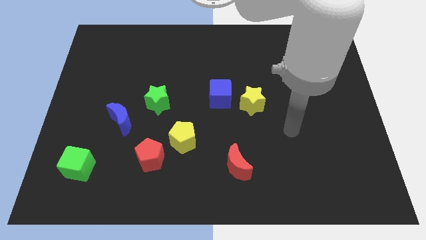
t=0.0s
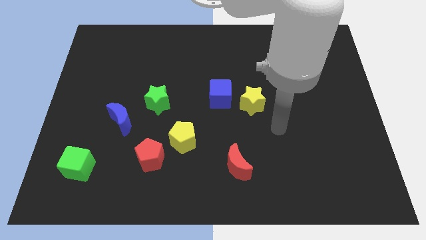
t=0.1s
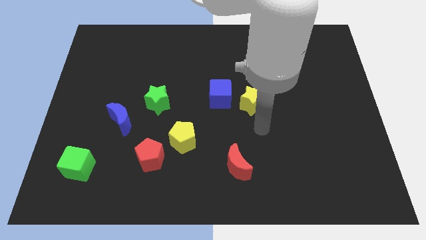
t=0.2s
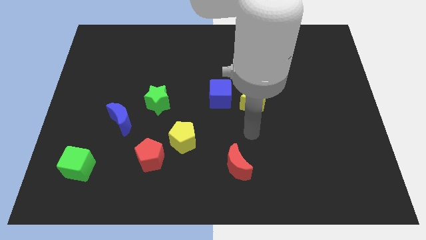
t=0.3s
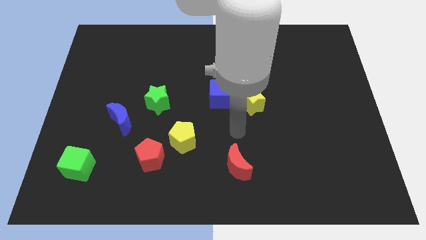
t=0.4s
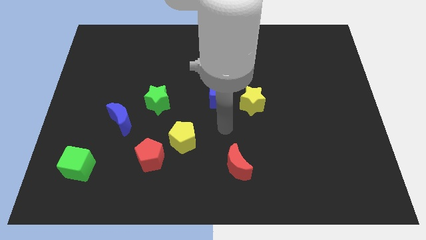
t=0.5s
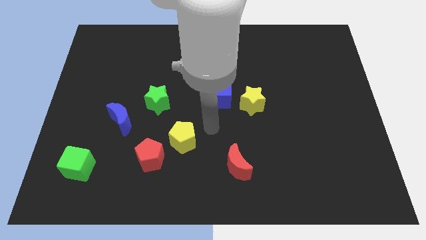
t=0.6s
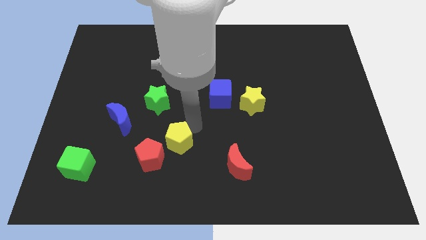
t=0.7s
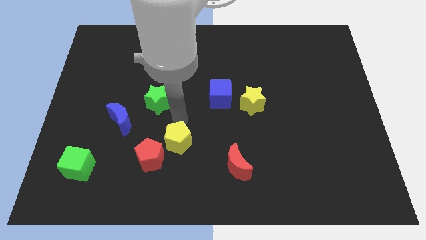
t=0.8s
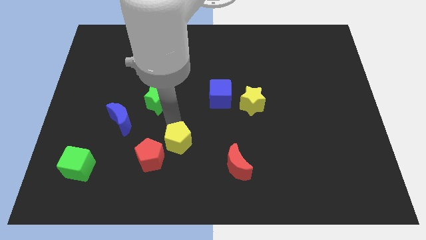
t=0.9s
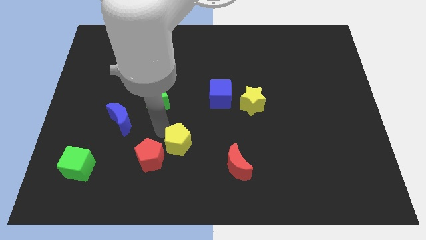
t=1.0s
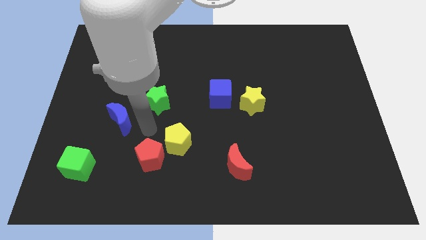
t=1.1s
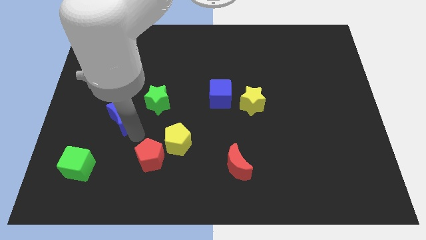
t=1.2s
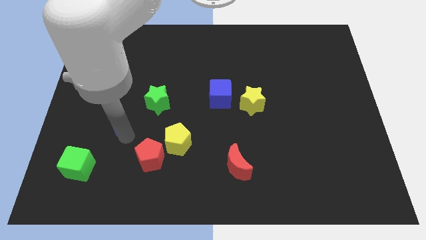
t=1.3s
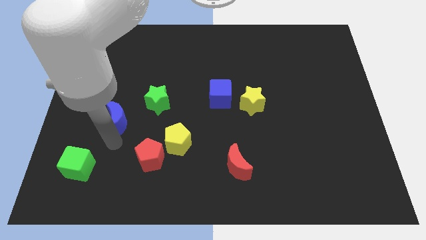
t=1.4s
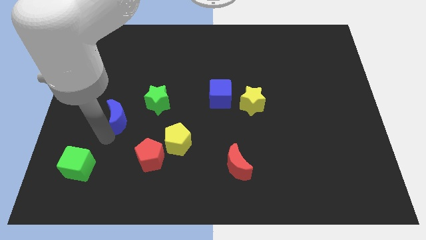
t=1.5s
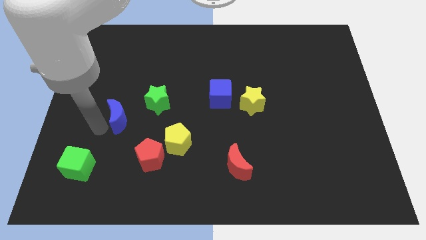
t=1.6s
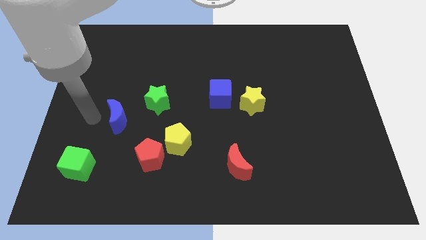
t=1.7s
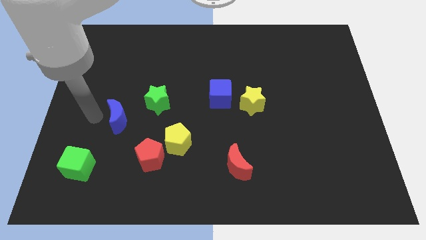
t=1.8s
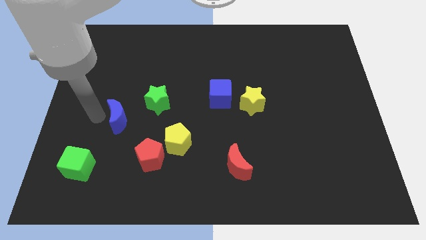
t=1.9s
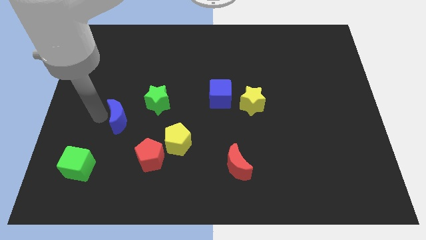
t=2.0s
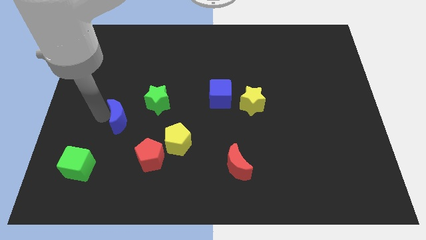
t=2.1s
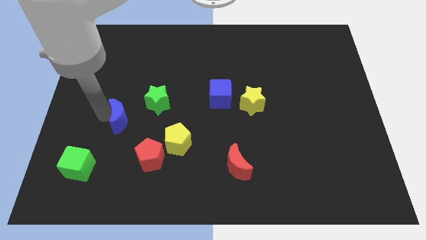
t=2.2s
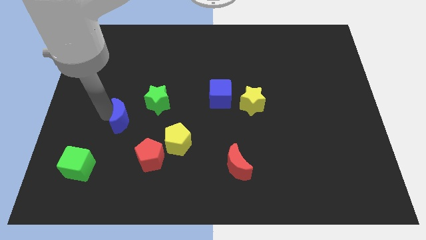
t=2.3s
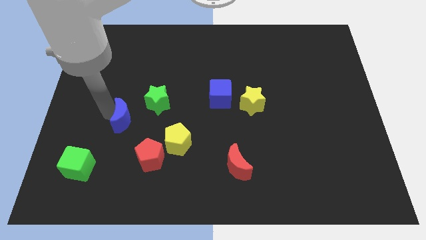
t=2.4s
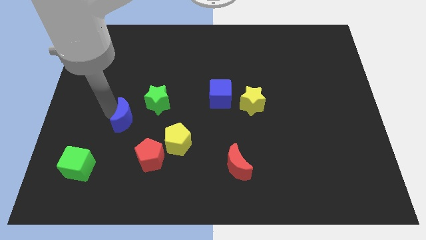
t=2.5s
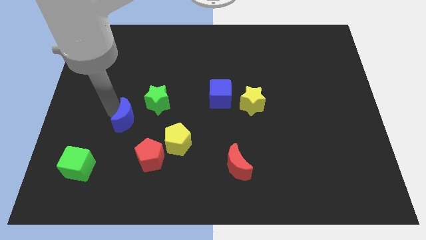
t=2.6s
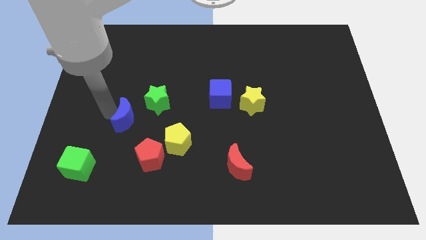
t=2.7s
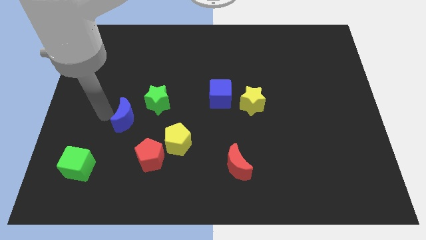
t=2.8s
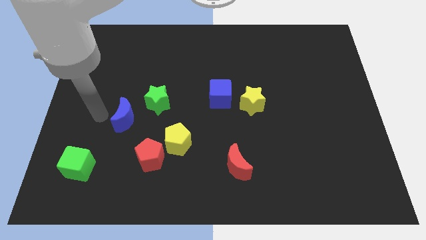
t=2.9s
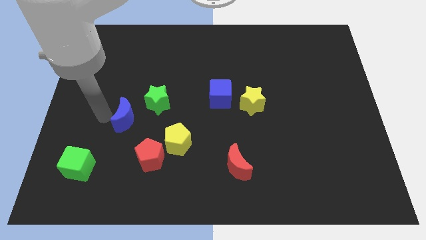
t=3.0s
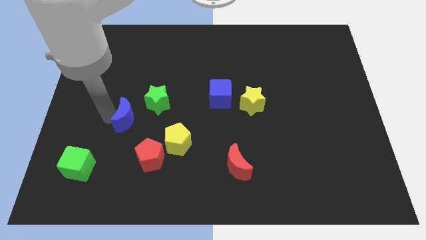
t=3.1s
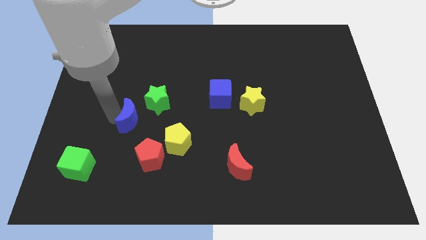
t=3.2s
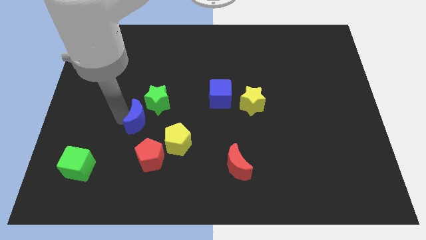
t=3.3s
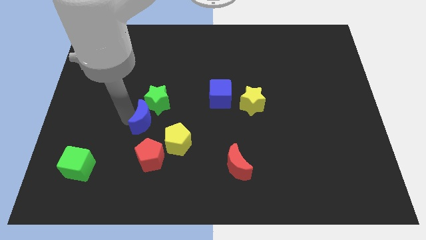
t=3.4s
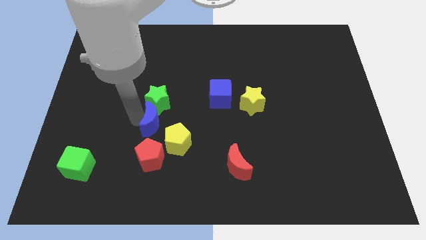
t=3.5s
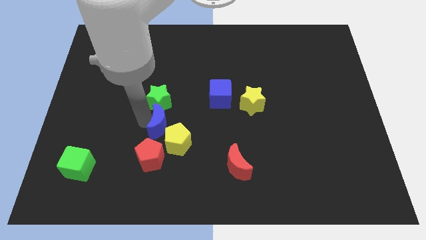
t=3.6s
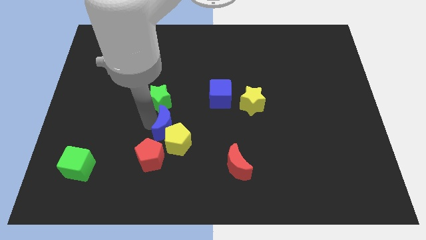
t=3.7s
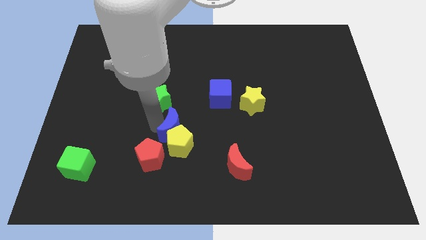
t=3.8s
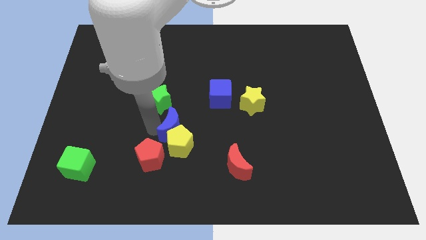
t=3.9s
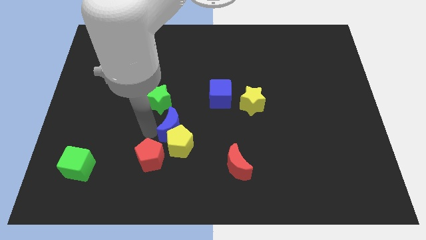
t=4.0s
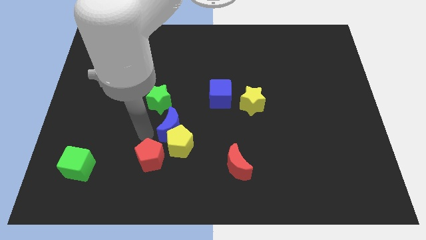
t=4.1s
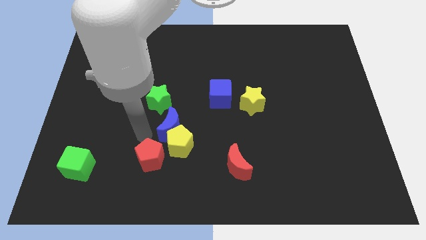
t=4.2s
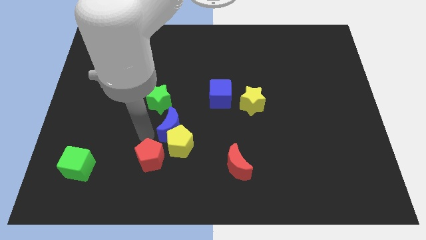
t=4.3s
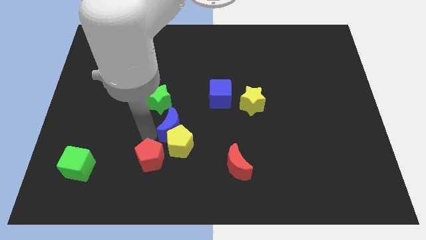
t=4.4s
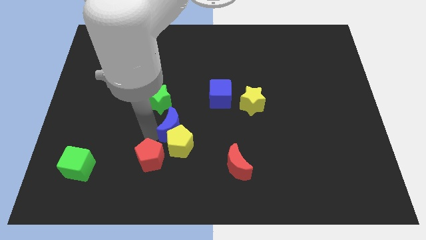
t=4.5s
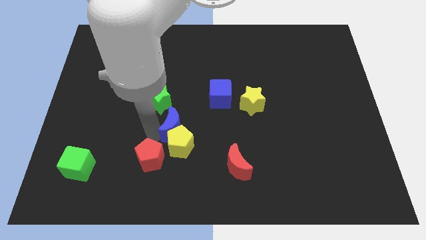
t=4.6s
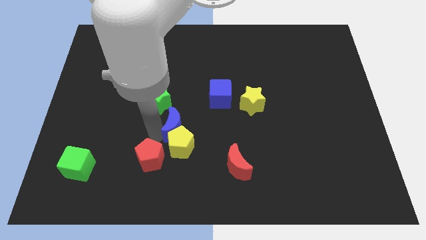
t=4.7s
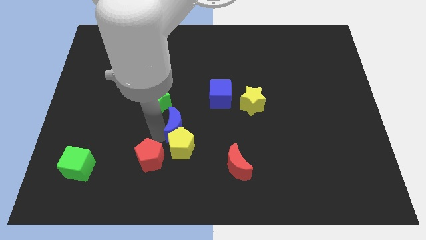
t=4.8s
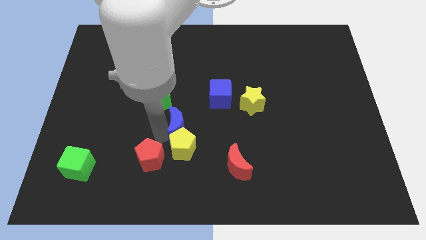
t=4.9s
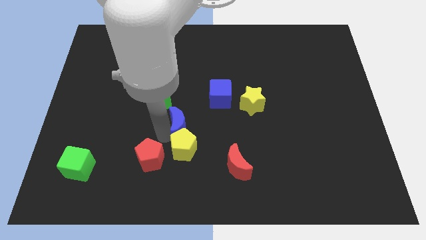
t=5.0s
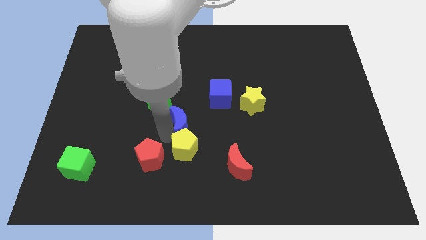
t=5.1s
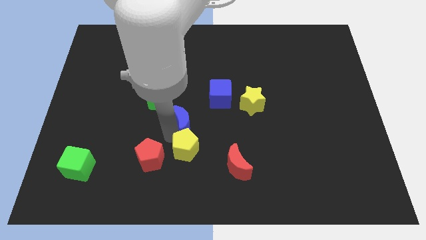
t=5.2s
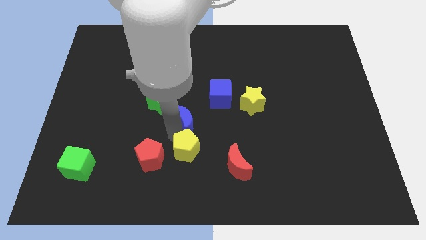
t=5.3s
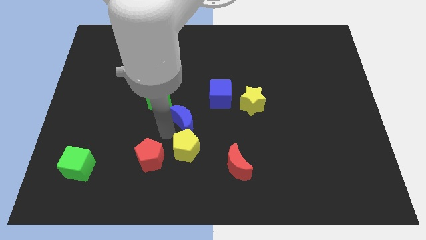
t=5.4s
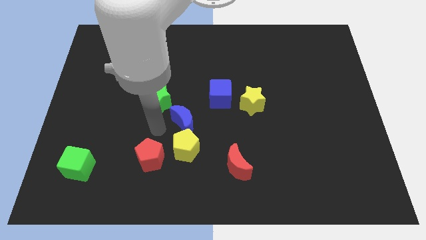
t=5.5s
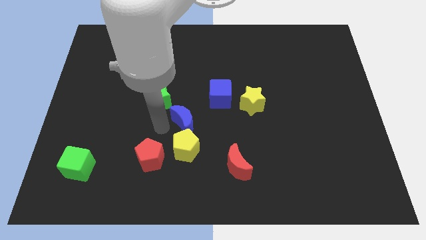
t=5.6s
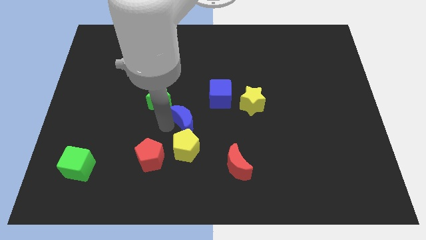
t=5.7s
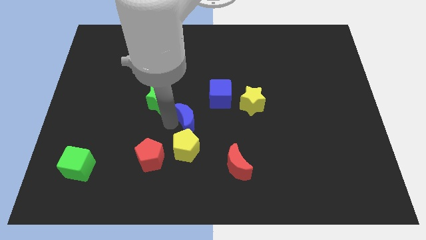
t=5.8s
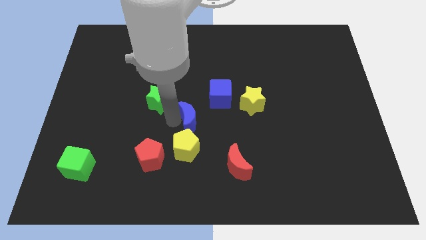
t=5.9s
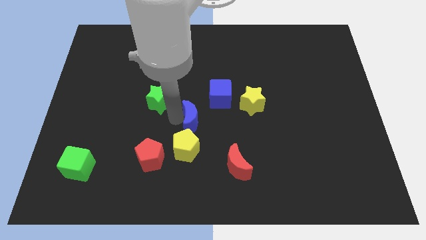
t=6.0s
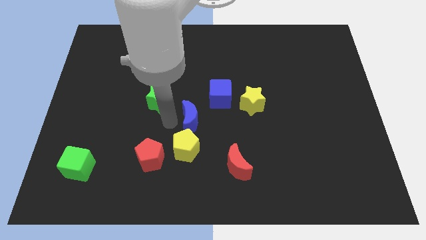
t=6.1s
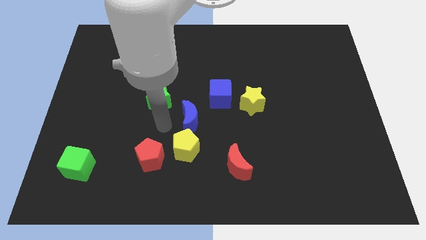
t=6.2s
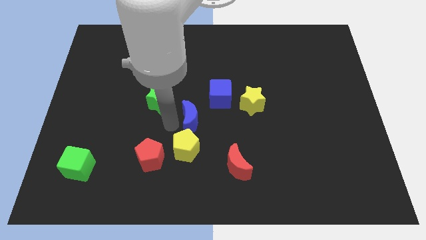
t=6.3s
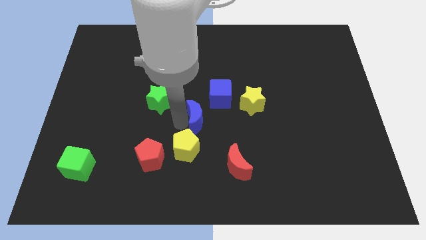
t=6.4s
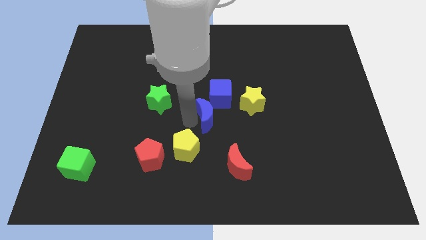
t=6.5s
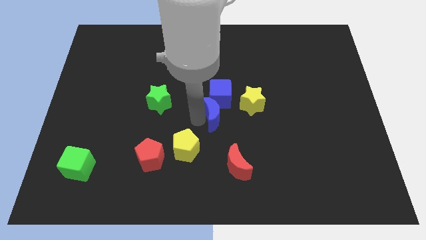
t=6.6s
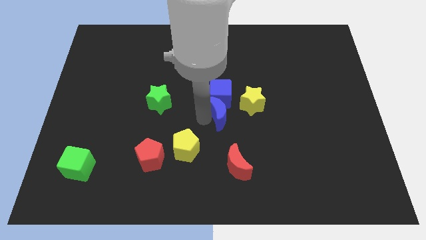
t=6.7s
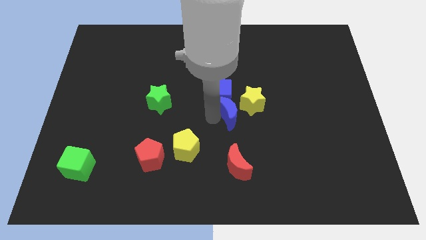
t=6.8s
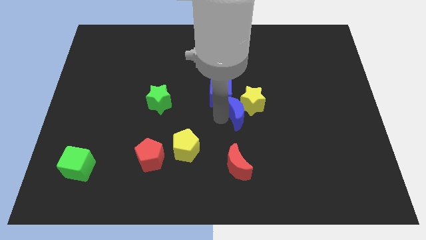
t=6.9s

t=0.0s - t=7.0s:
push the blue moon to the yellow star

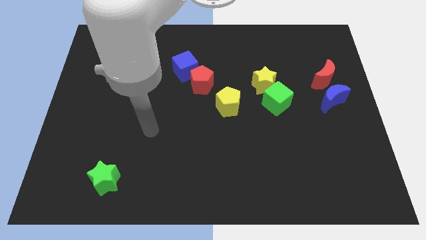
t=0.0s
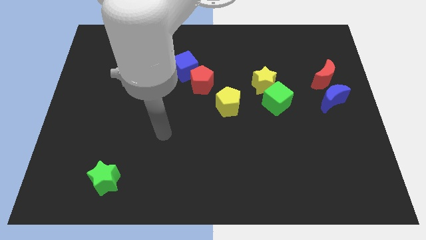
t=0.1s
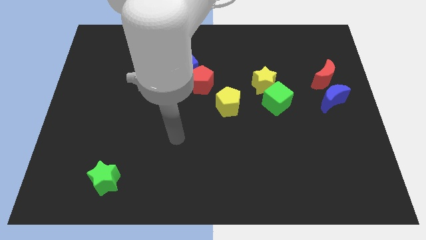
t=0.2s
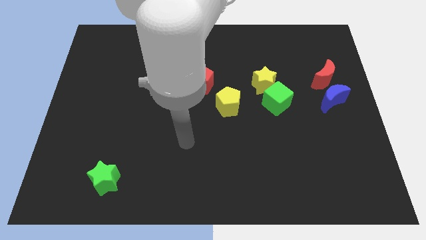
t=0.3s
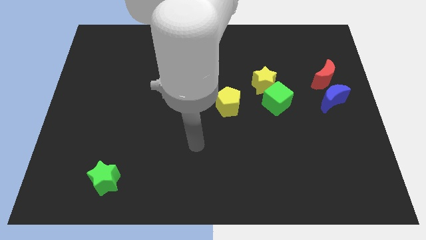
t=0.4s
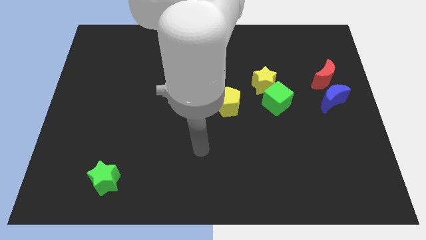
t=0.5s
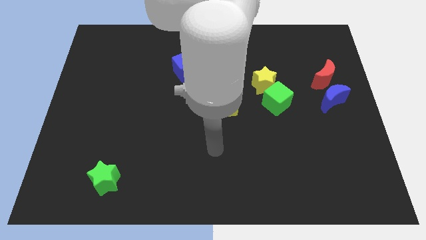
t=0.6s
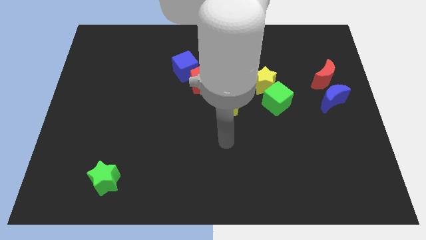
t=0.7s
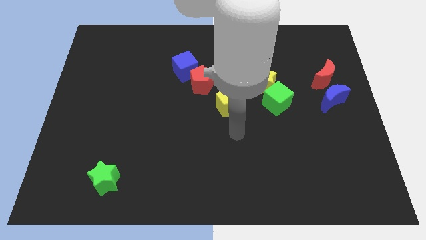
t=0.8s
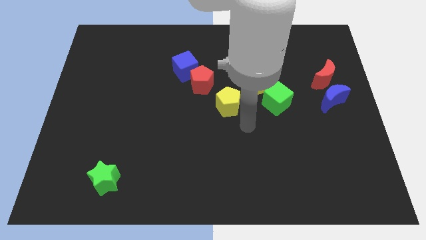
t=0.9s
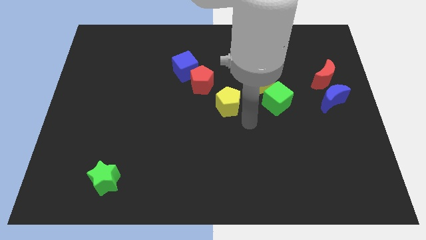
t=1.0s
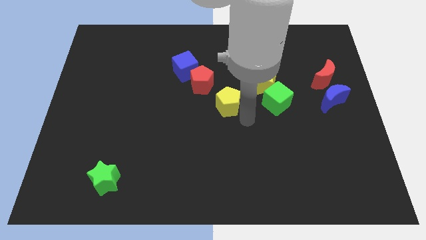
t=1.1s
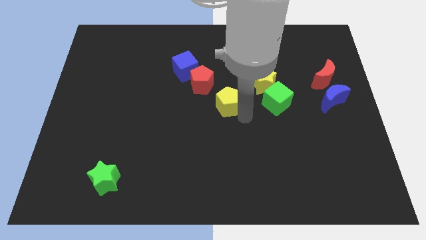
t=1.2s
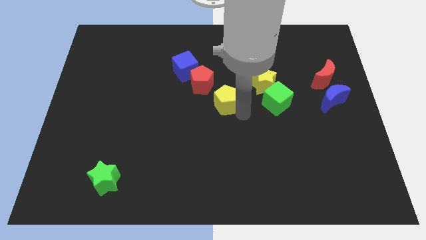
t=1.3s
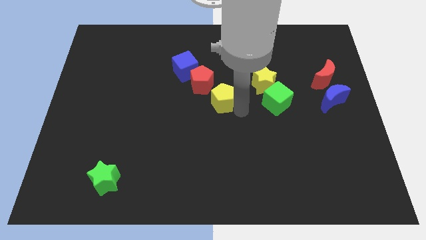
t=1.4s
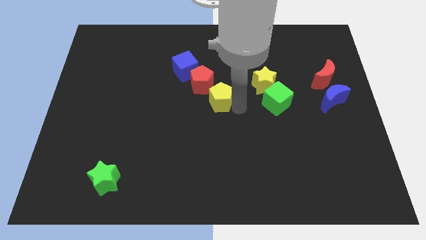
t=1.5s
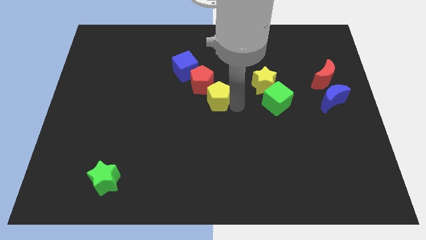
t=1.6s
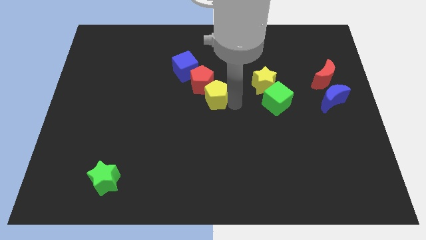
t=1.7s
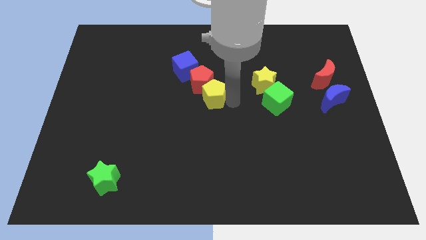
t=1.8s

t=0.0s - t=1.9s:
move the yellow pentagon towards the red pentagon
